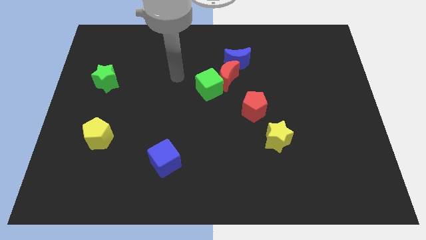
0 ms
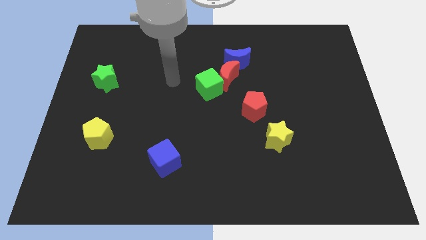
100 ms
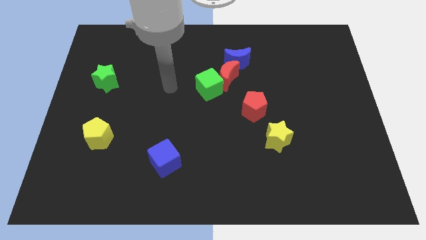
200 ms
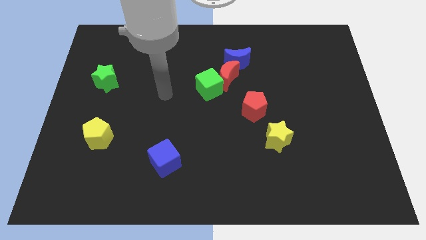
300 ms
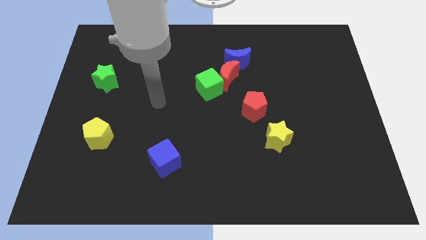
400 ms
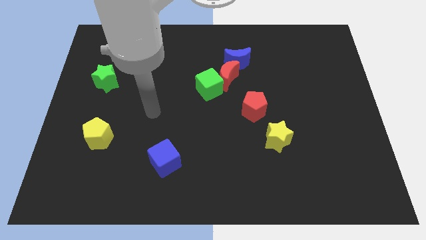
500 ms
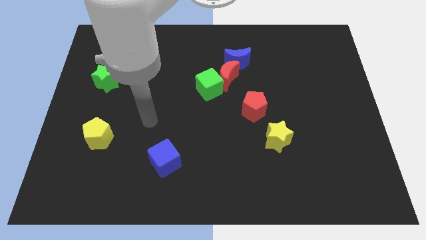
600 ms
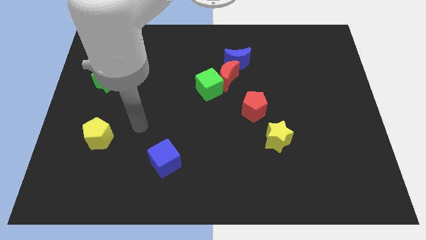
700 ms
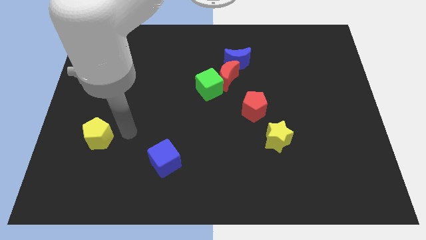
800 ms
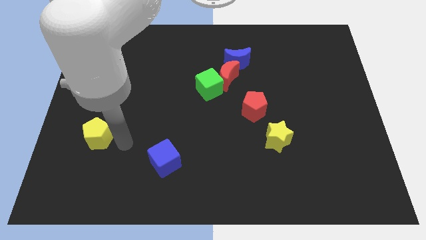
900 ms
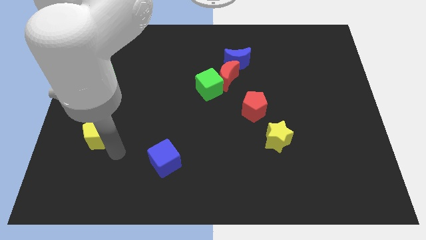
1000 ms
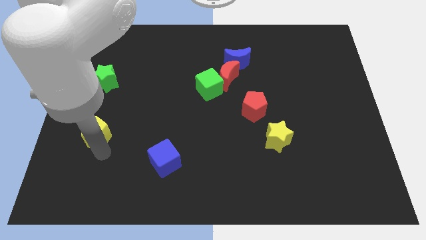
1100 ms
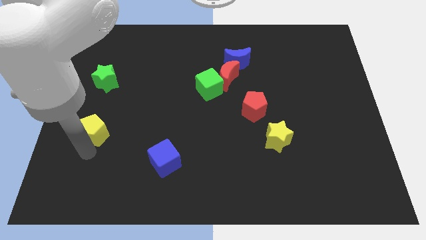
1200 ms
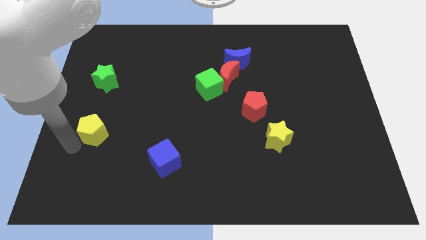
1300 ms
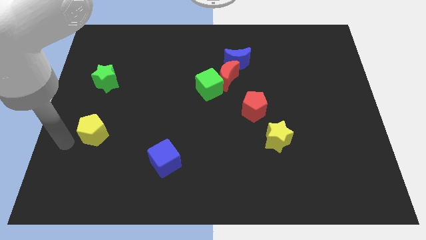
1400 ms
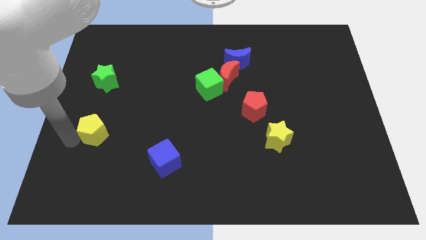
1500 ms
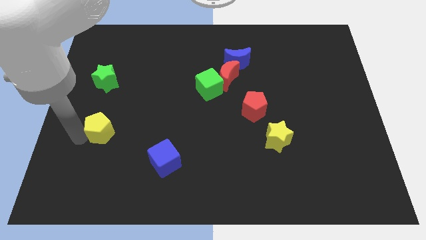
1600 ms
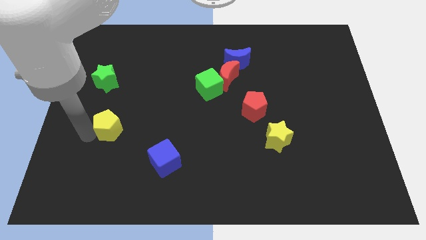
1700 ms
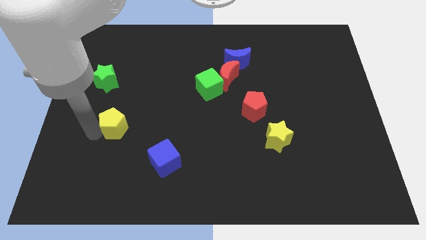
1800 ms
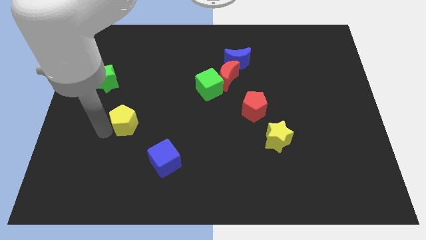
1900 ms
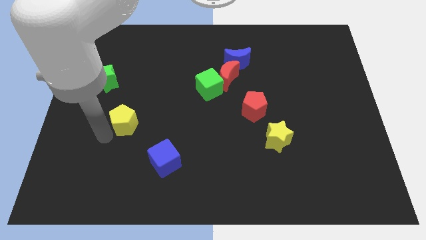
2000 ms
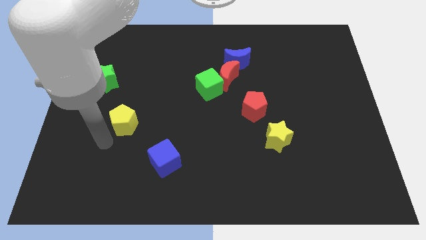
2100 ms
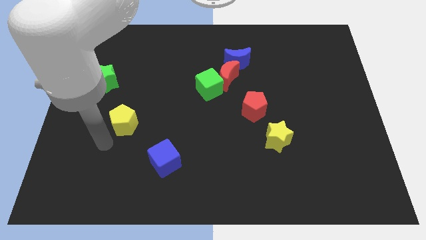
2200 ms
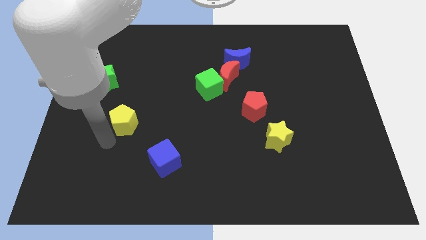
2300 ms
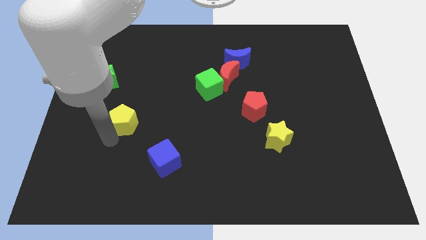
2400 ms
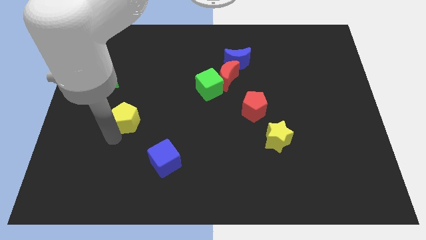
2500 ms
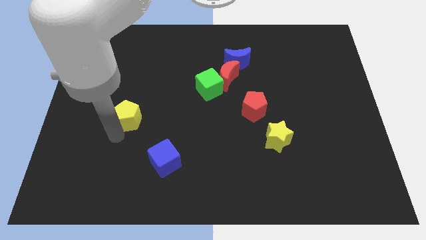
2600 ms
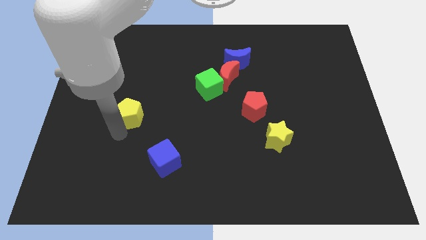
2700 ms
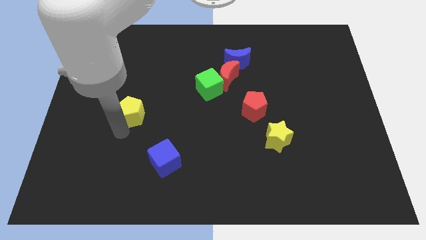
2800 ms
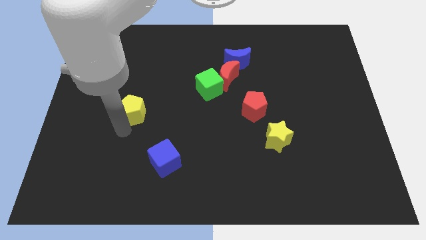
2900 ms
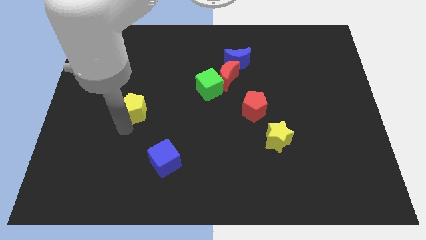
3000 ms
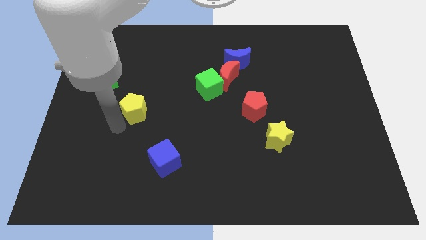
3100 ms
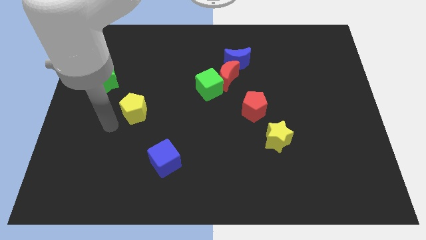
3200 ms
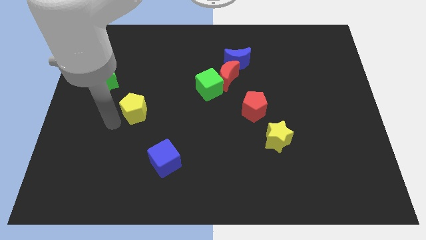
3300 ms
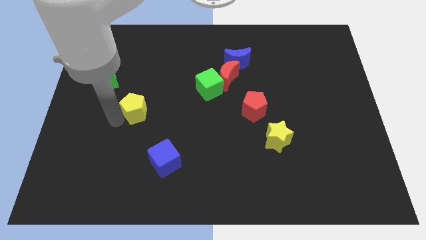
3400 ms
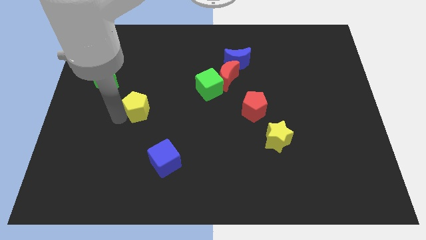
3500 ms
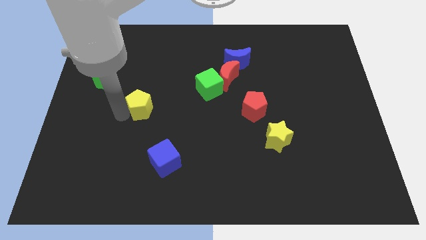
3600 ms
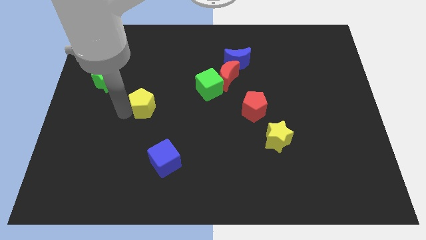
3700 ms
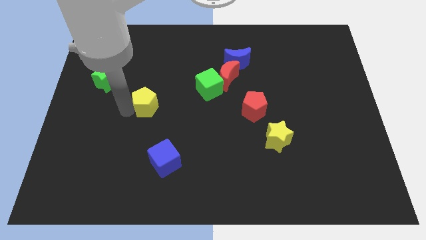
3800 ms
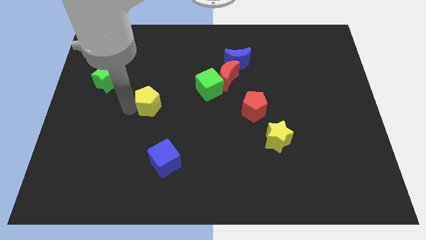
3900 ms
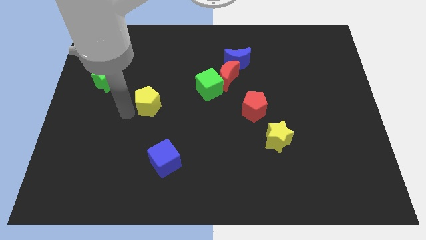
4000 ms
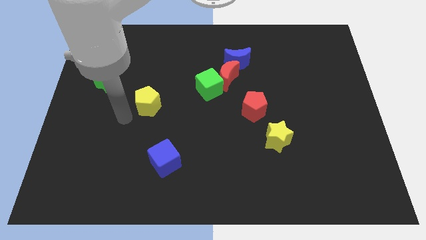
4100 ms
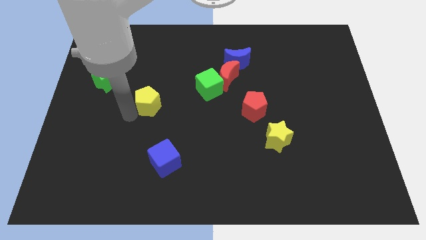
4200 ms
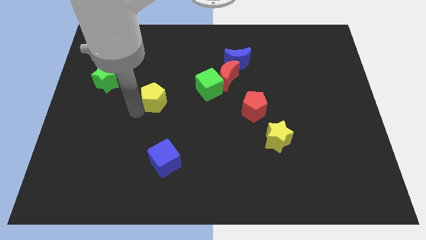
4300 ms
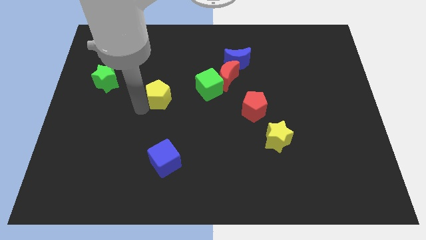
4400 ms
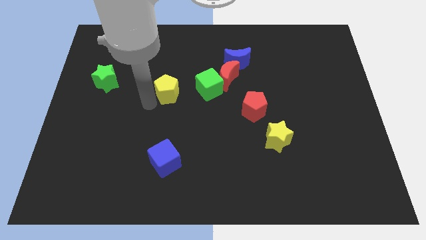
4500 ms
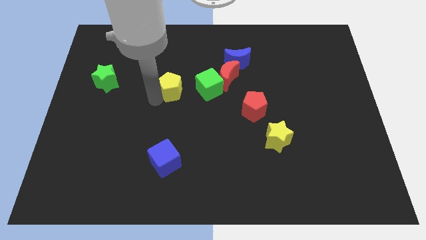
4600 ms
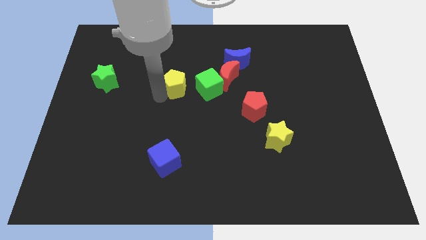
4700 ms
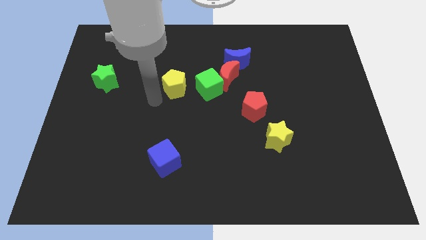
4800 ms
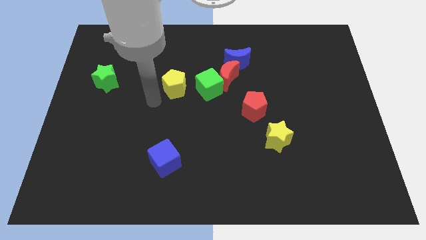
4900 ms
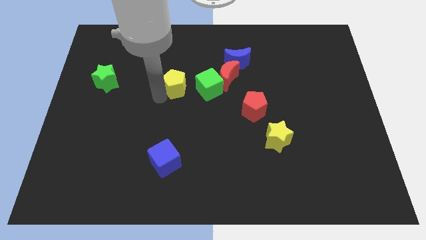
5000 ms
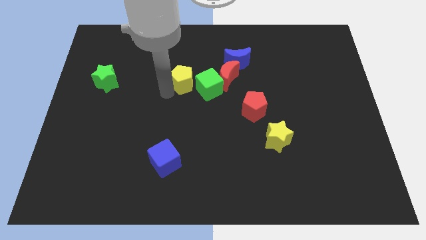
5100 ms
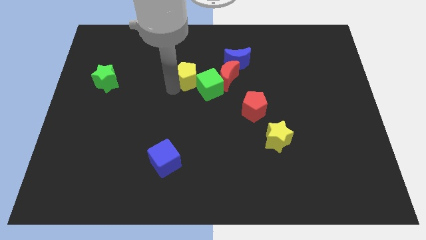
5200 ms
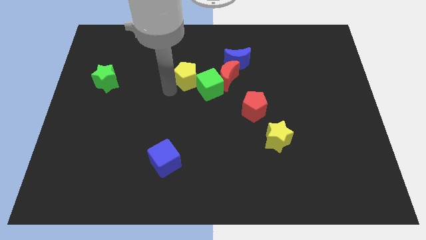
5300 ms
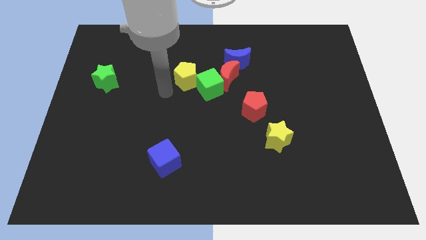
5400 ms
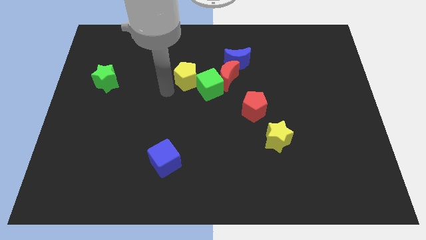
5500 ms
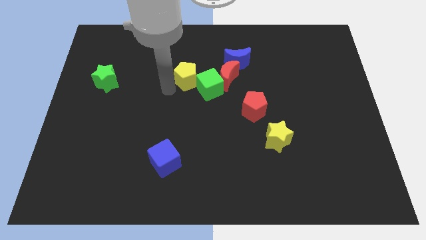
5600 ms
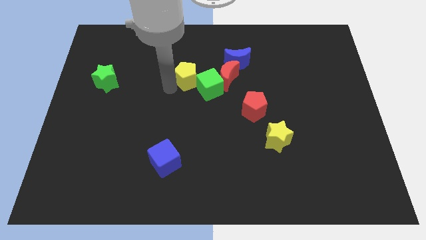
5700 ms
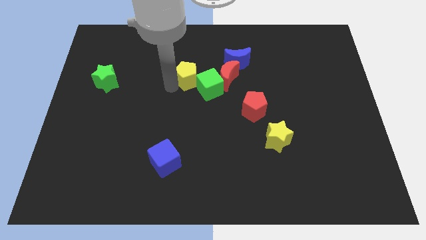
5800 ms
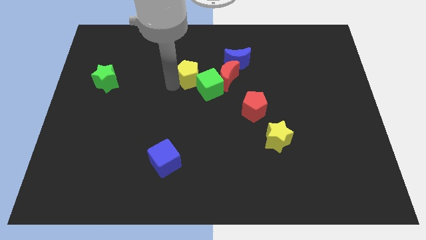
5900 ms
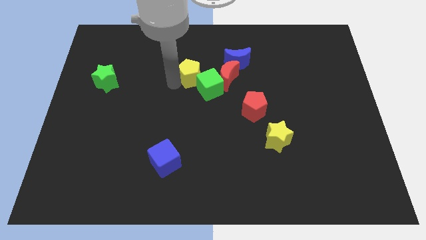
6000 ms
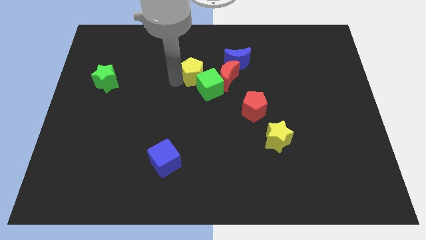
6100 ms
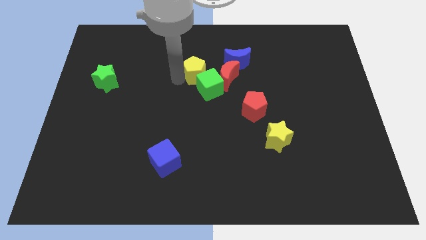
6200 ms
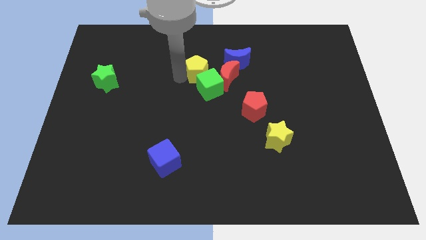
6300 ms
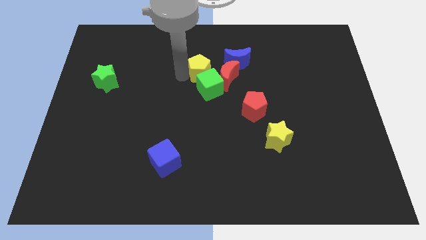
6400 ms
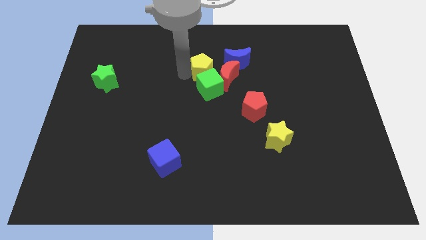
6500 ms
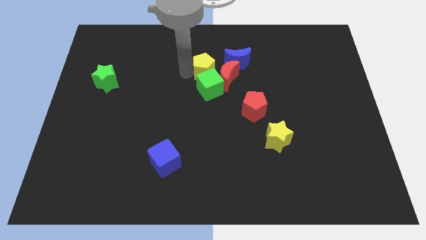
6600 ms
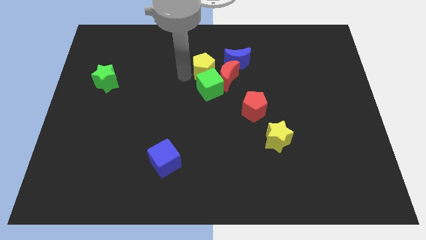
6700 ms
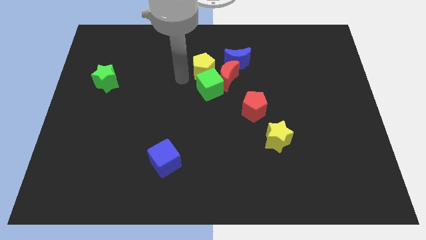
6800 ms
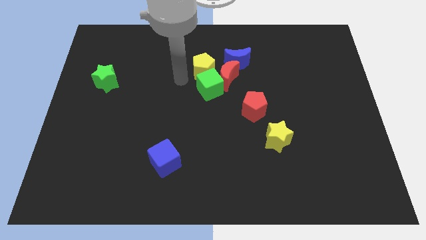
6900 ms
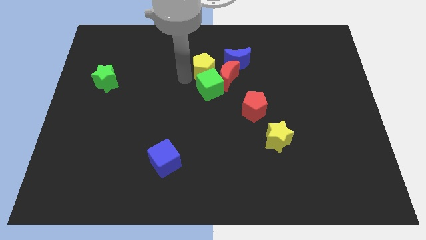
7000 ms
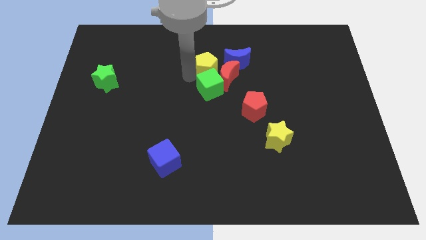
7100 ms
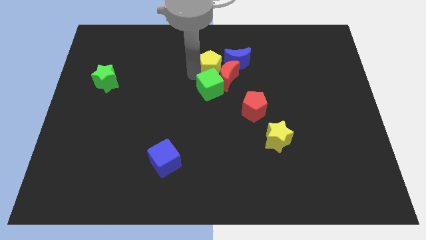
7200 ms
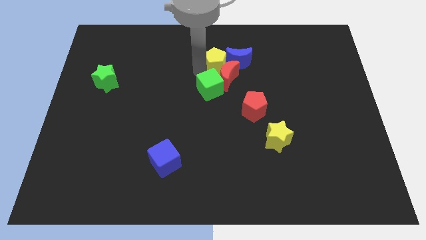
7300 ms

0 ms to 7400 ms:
push the yellow pentagon next to the blue moon
